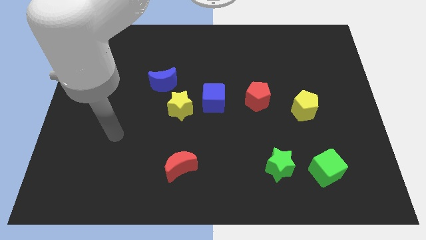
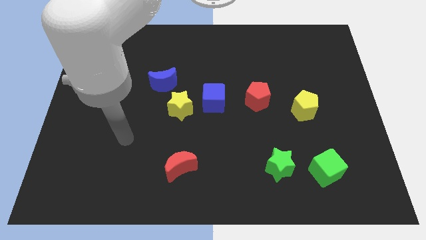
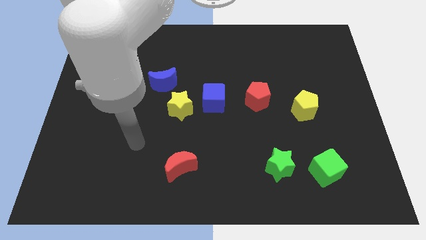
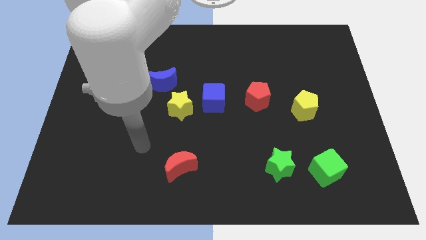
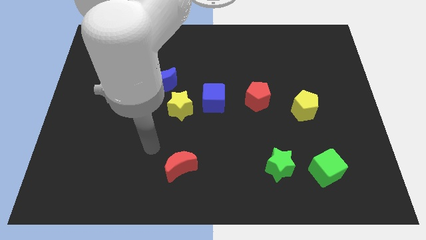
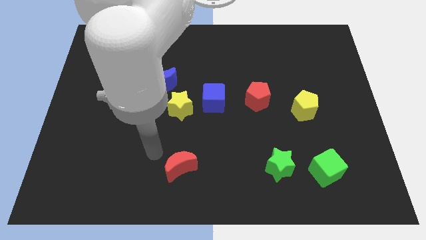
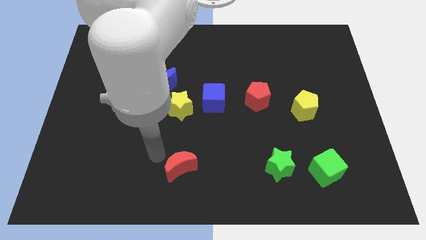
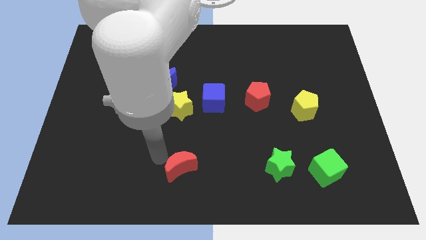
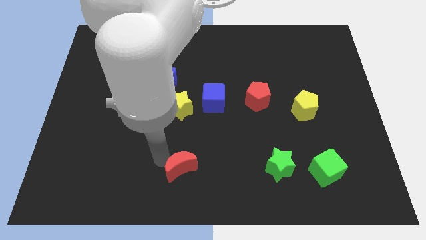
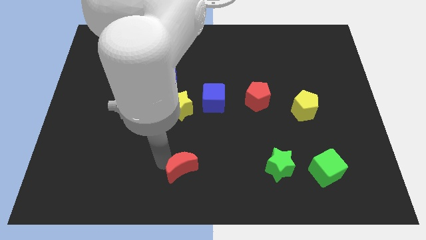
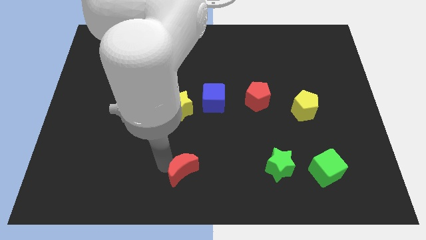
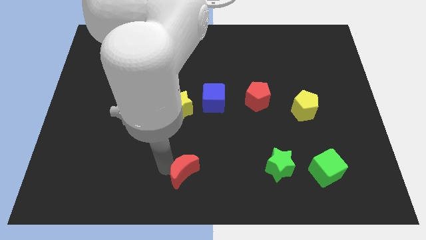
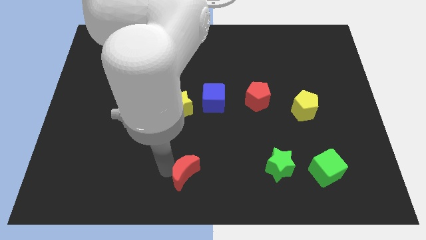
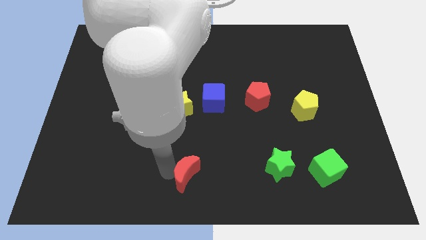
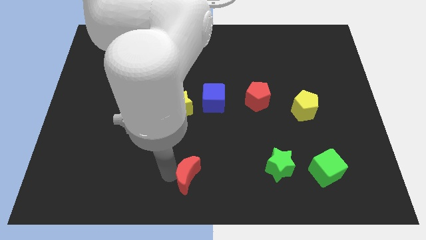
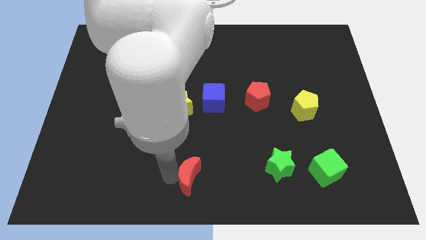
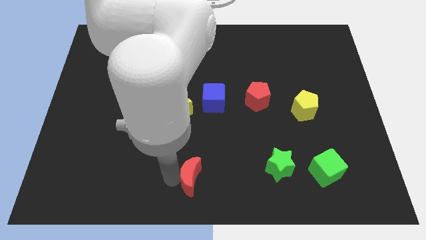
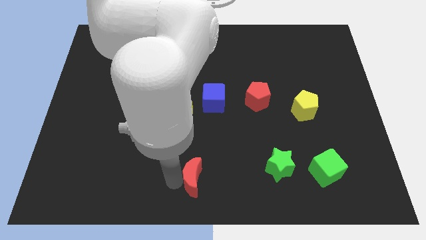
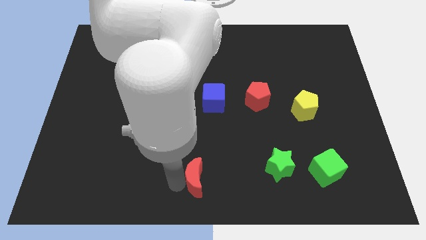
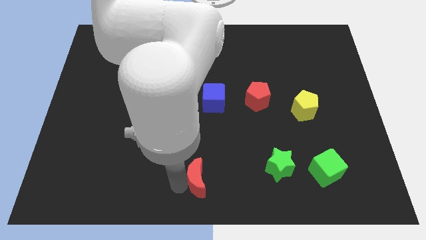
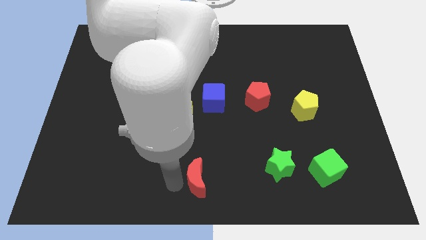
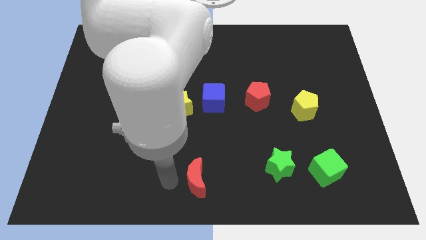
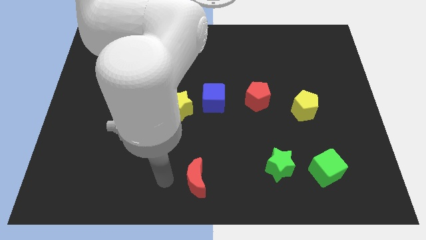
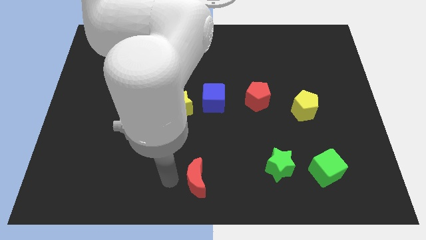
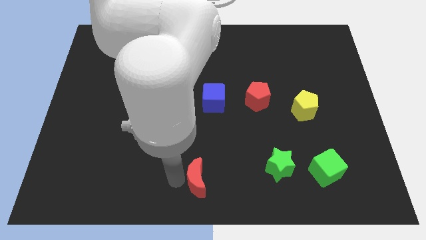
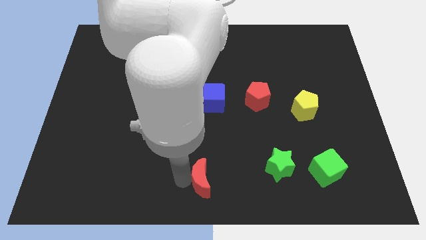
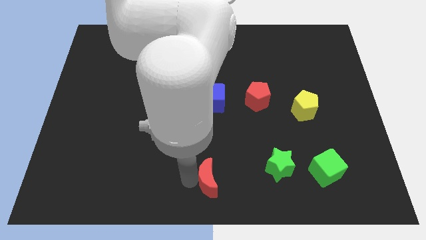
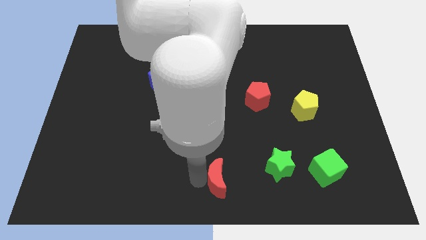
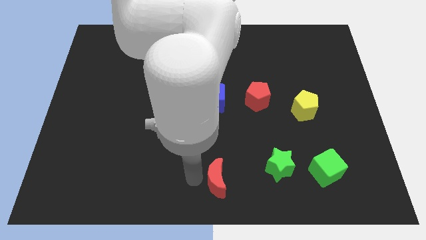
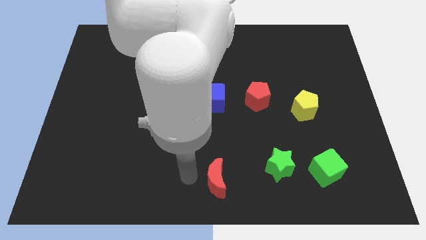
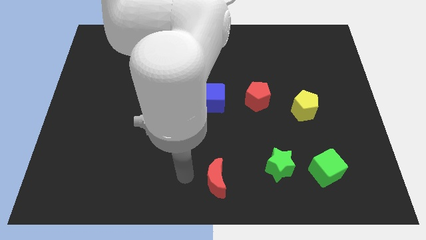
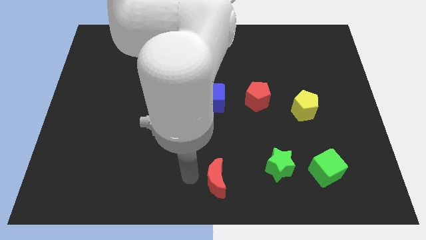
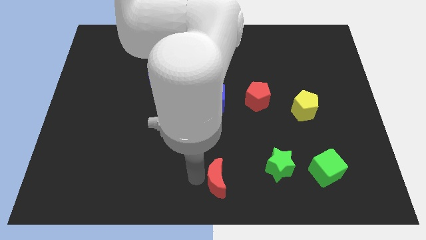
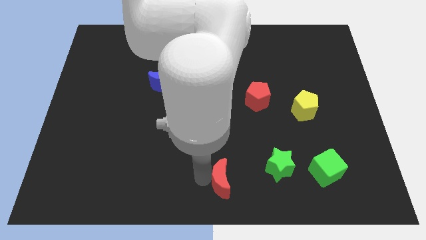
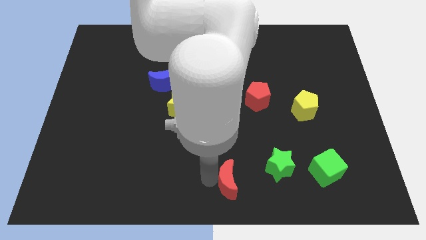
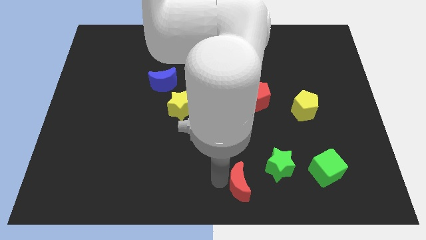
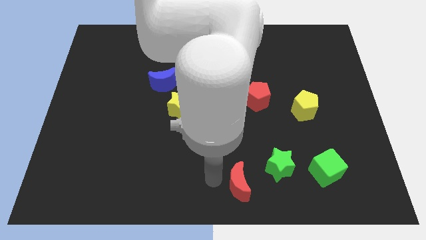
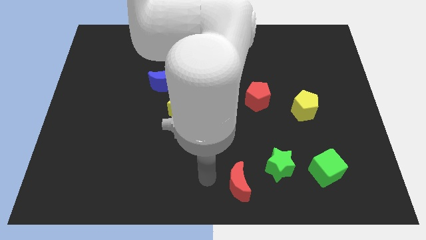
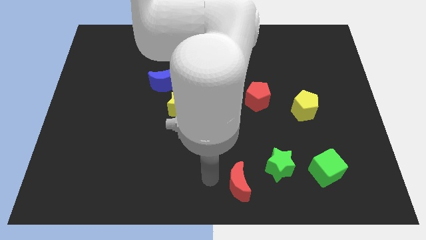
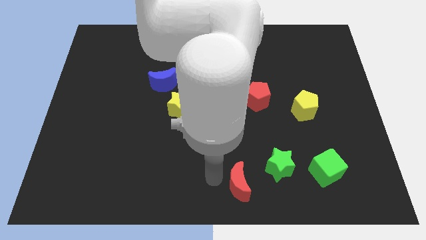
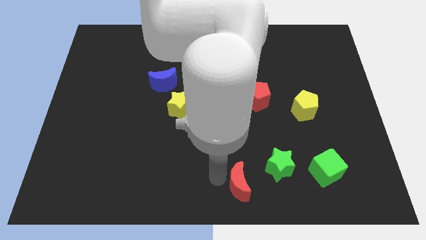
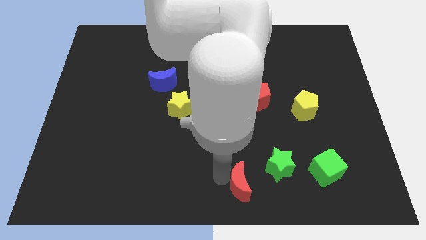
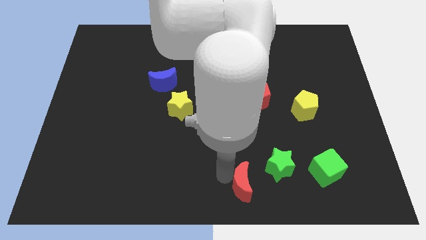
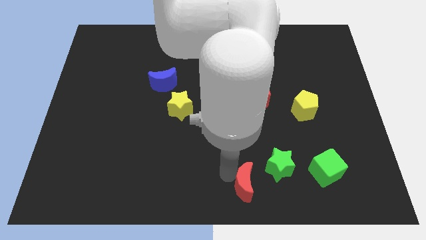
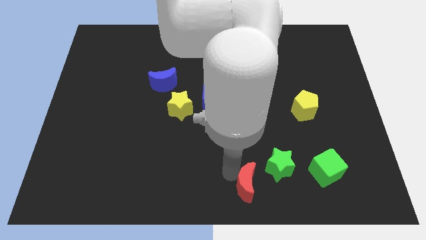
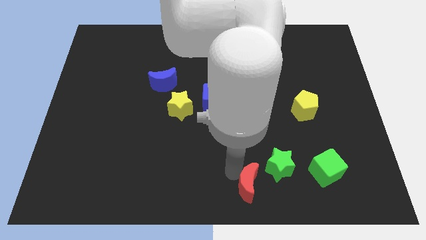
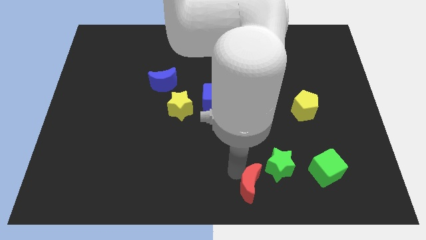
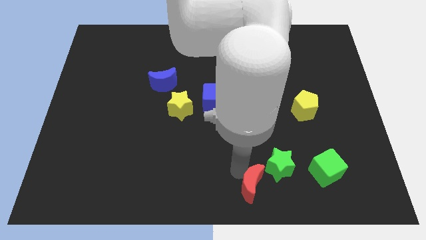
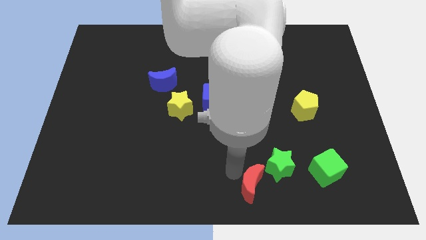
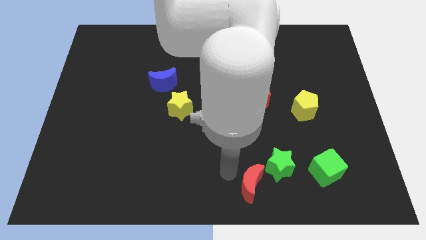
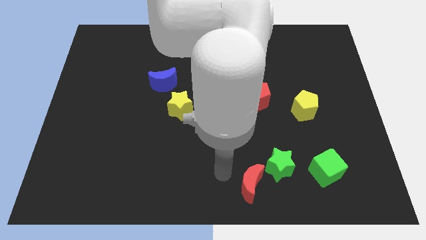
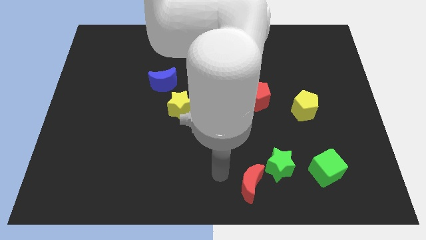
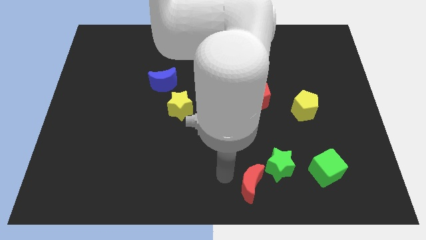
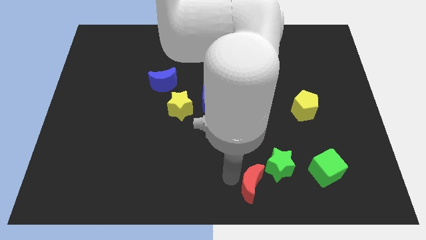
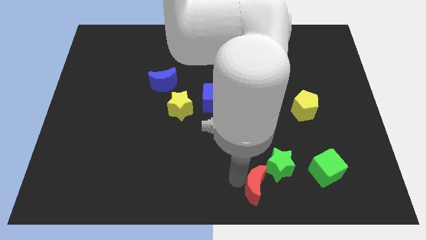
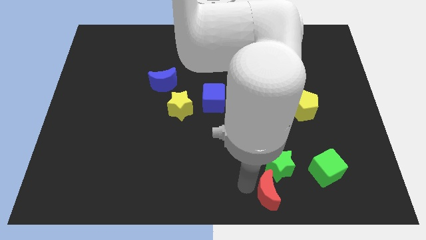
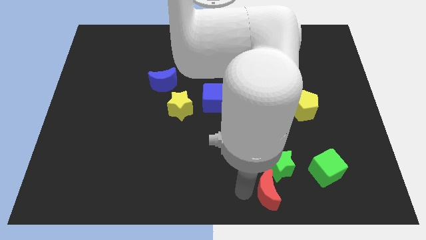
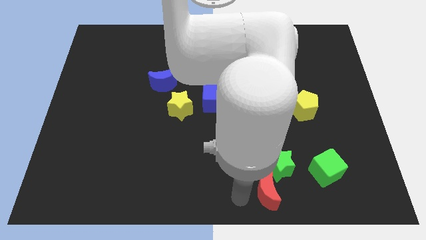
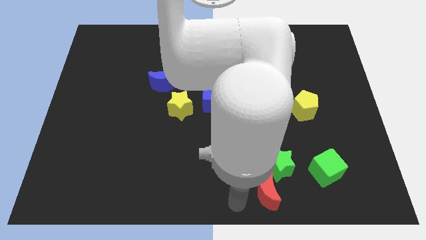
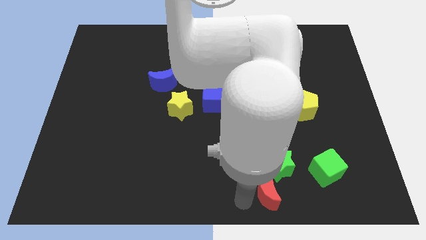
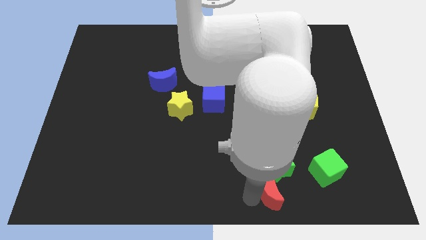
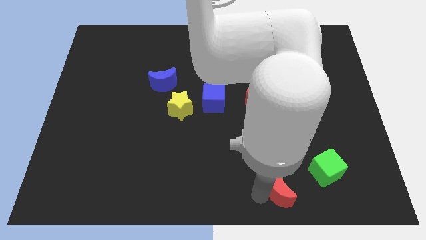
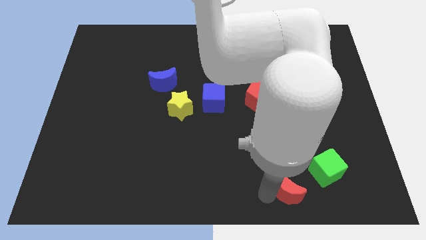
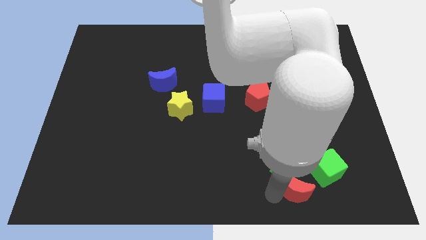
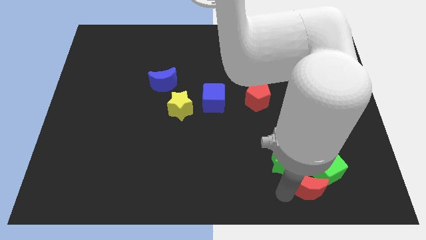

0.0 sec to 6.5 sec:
push the red moon close to the green cube

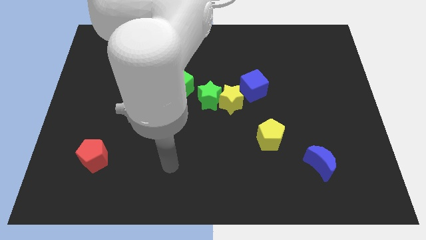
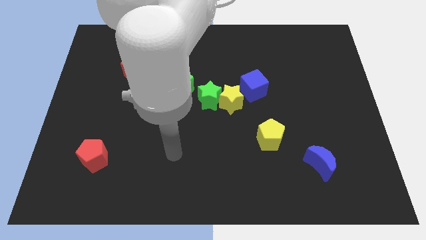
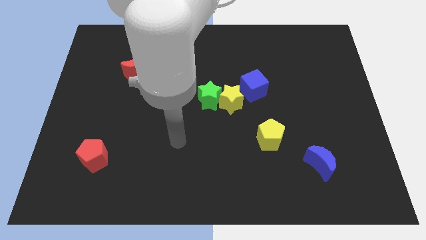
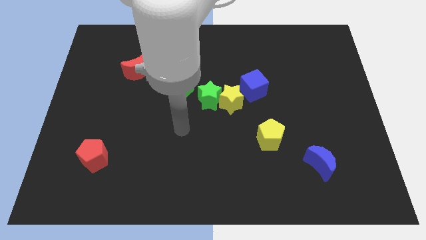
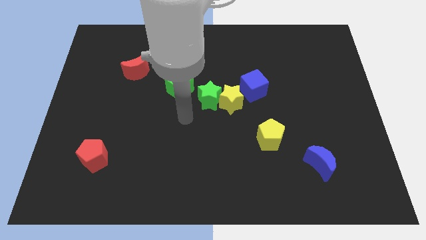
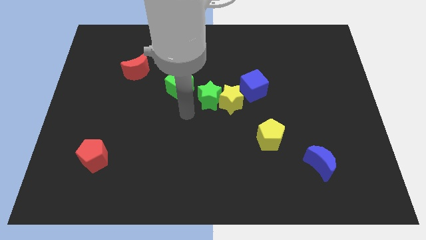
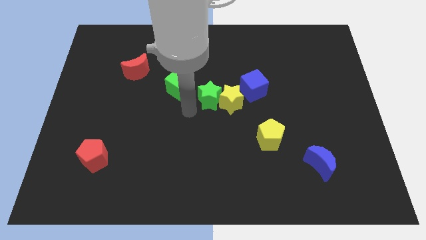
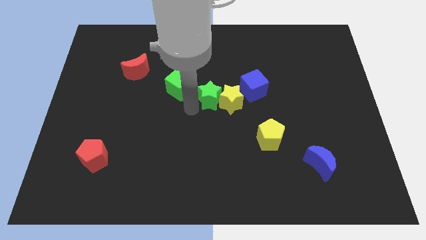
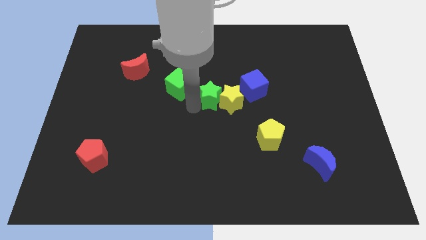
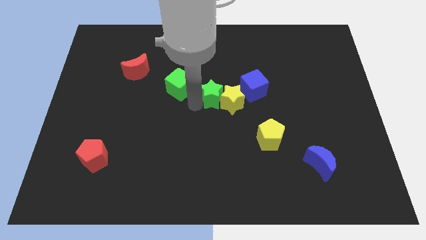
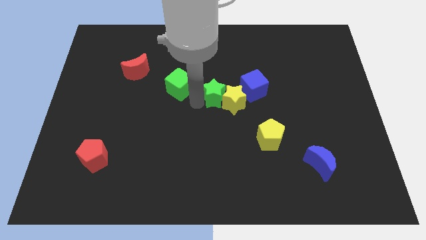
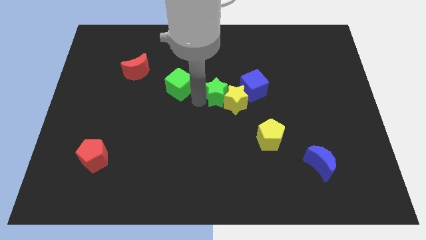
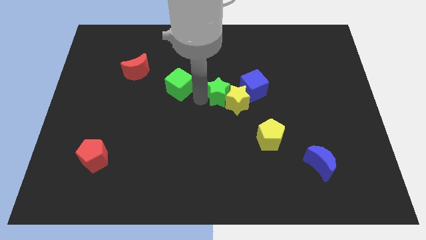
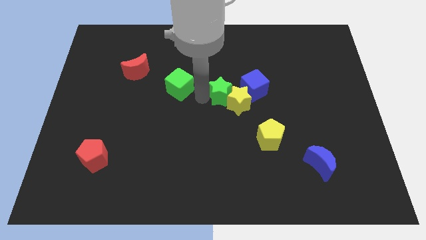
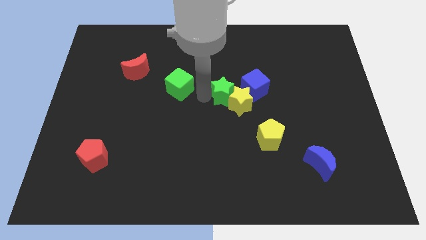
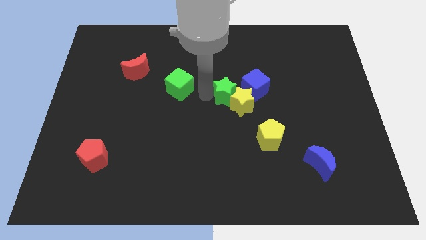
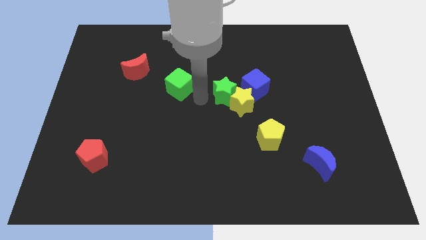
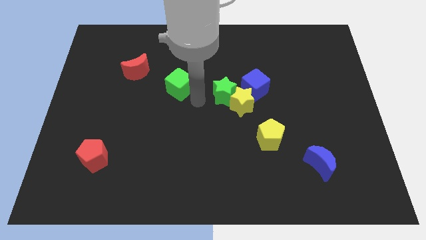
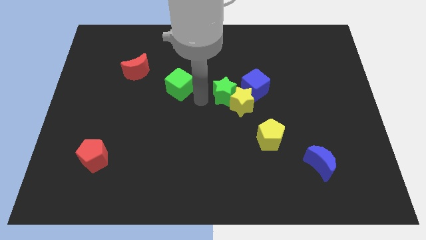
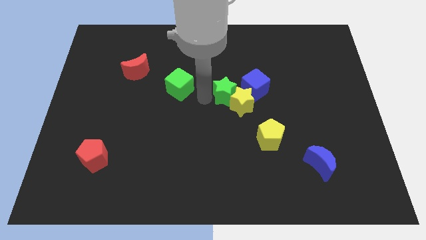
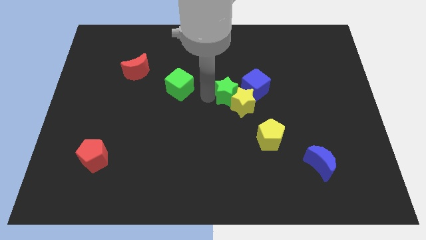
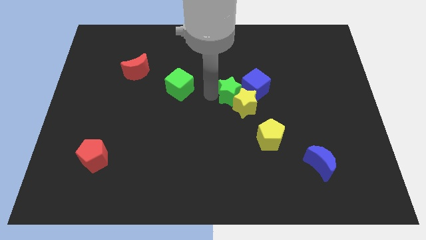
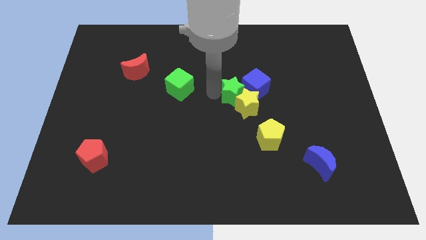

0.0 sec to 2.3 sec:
push the green star close to the blue cube
